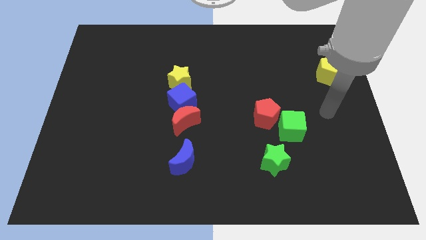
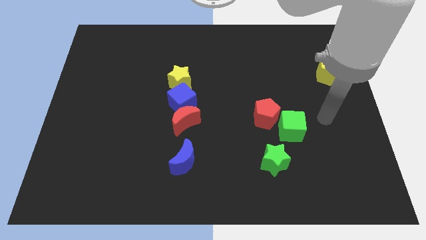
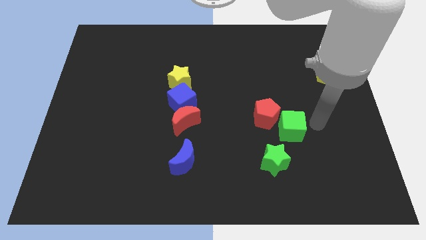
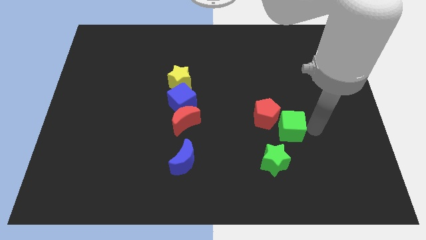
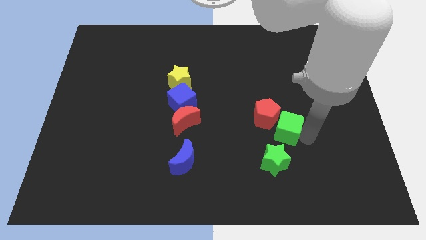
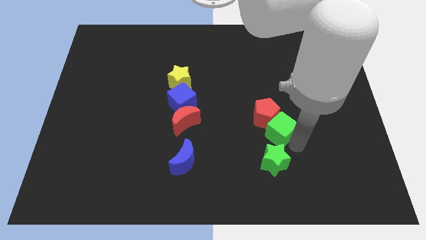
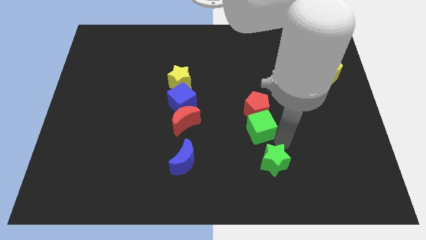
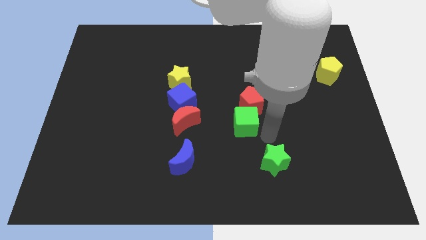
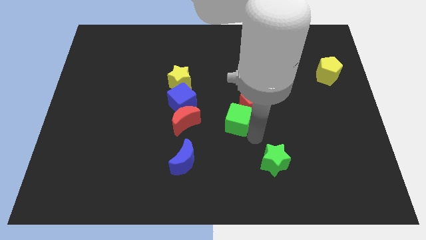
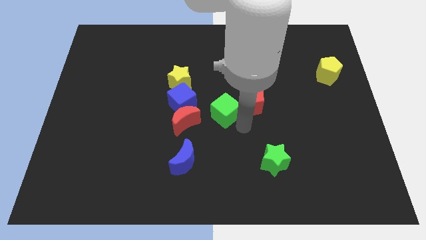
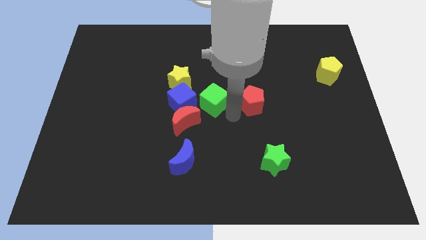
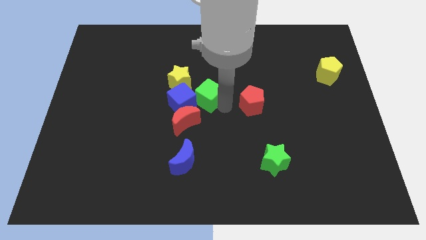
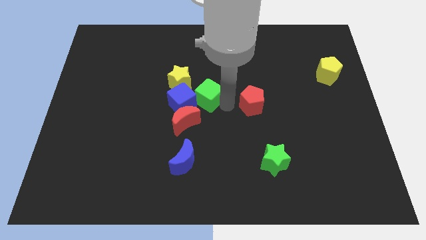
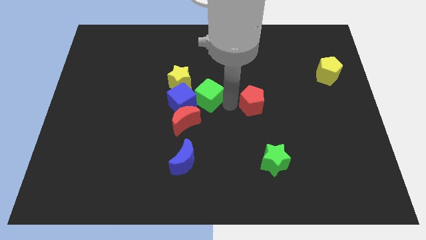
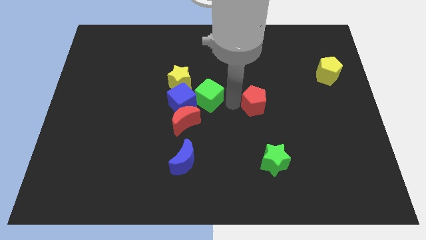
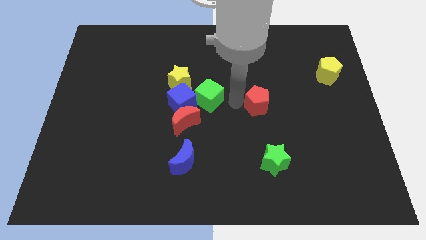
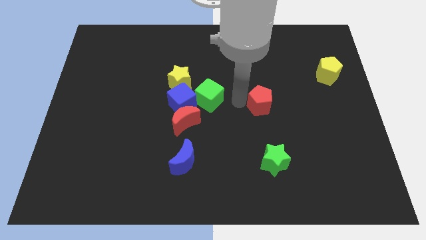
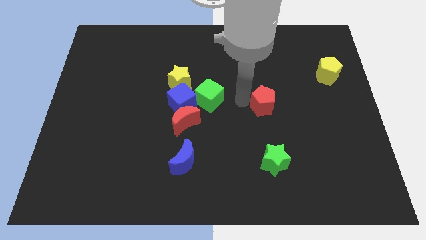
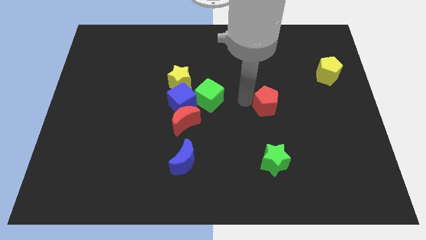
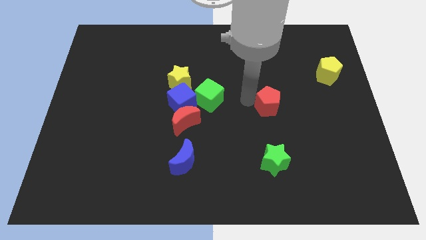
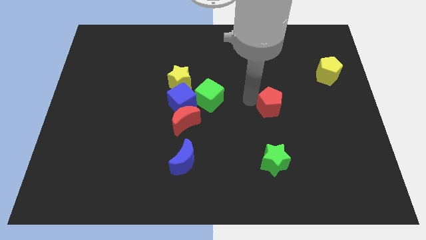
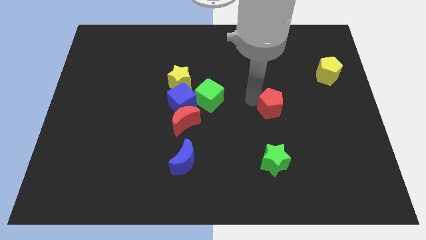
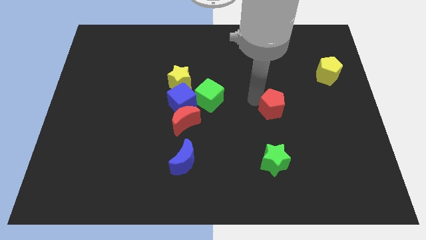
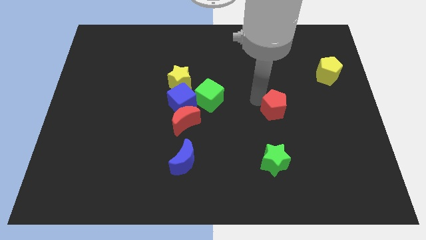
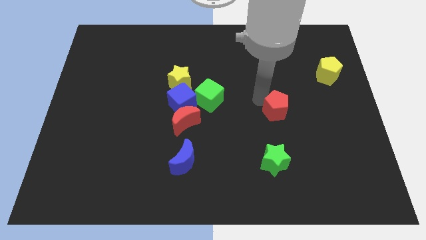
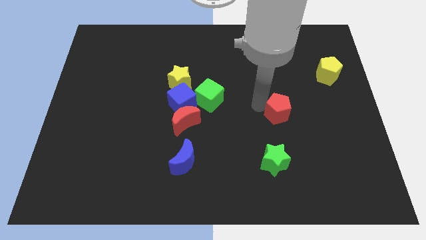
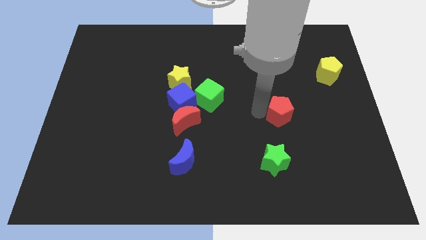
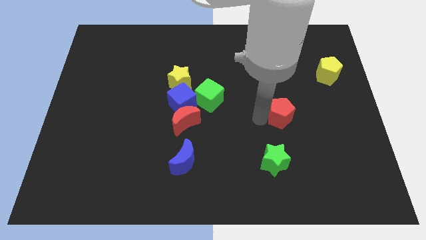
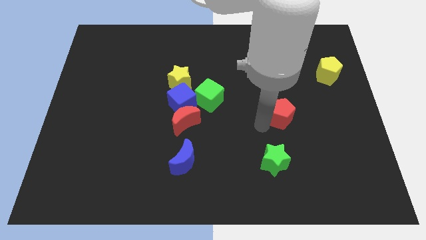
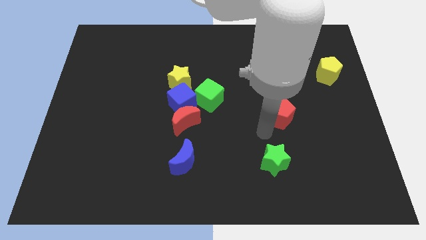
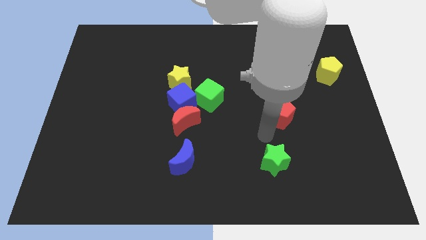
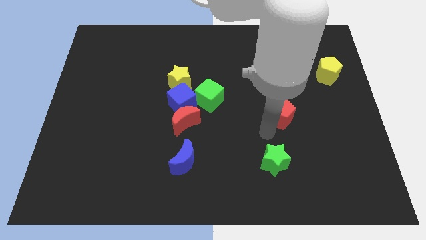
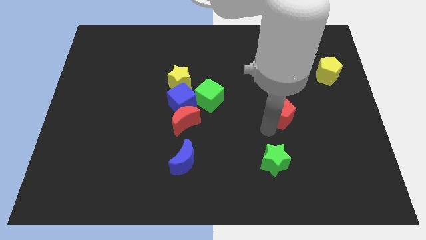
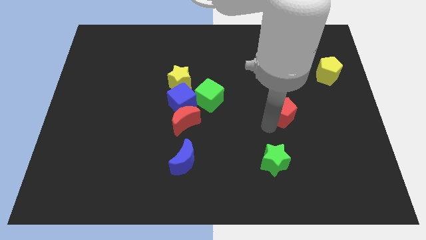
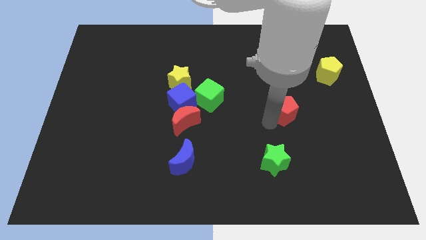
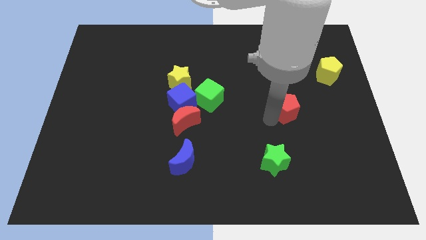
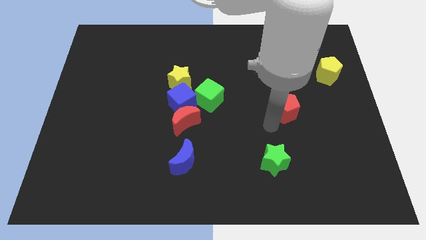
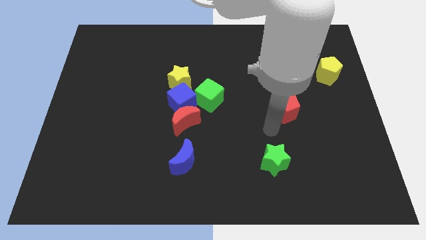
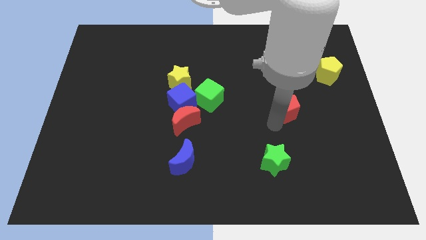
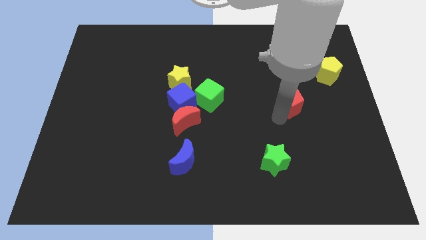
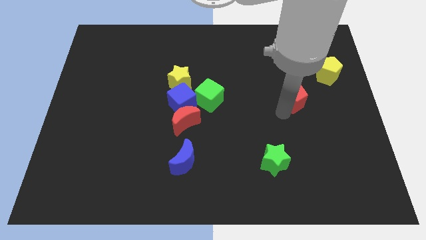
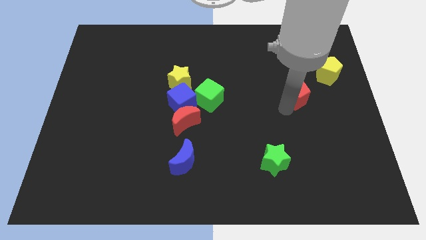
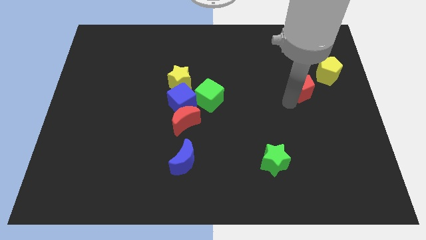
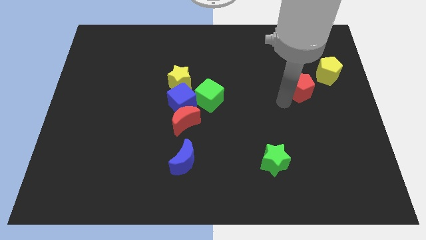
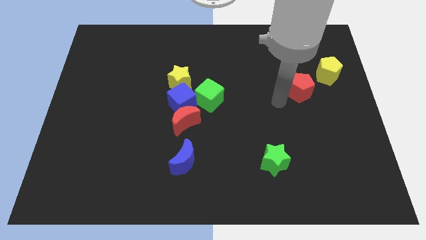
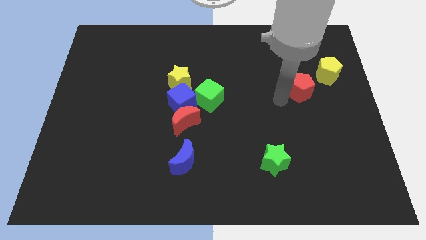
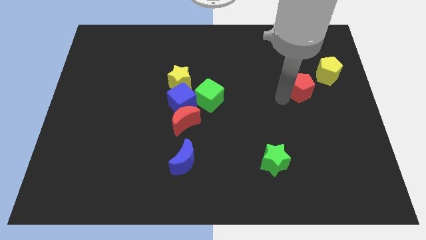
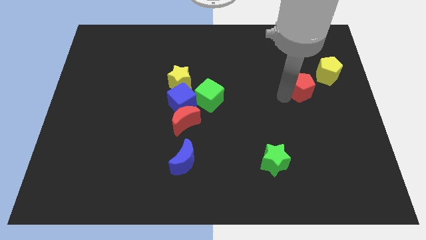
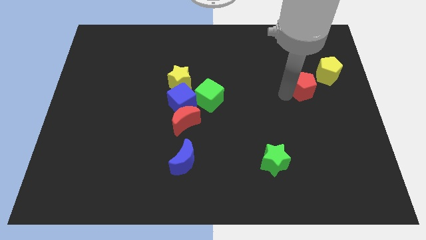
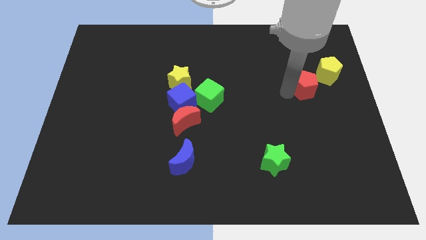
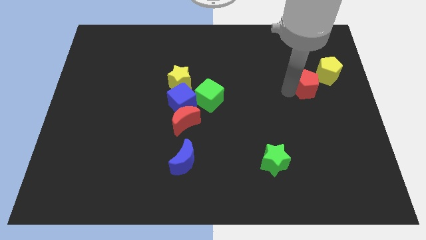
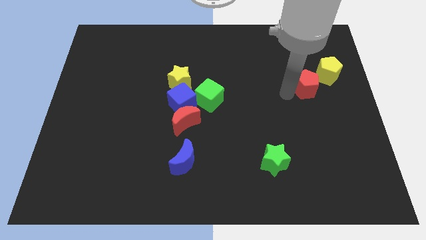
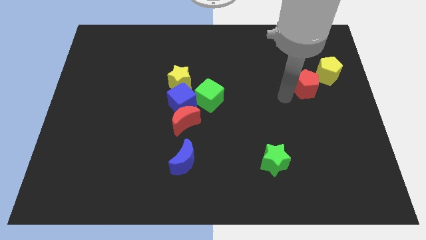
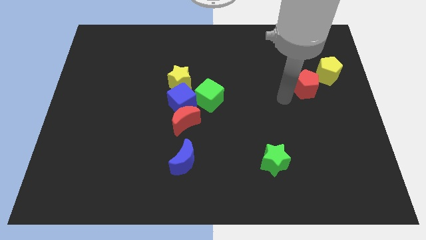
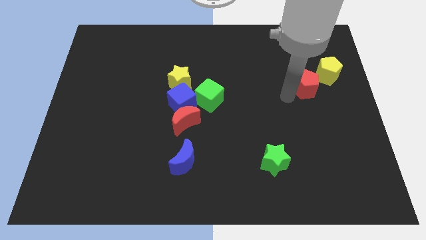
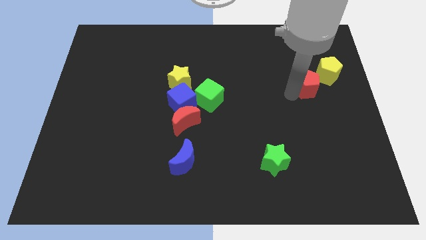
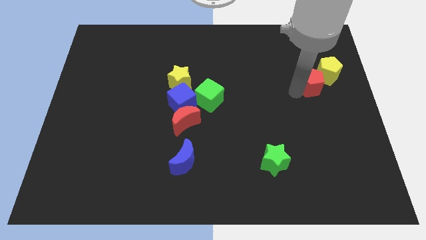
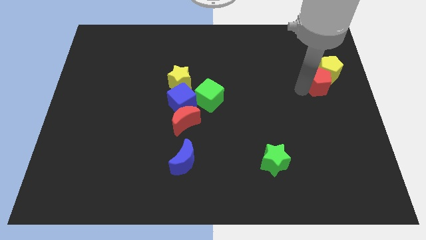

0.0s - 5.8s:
slide the red pentagon close to the yellow pentagon

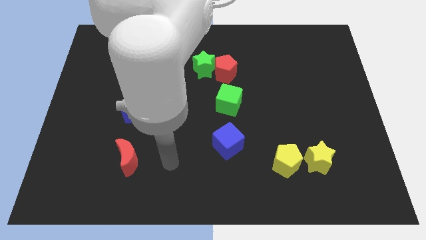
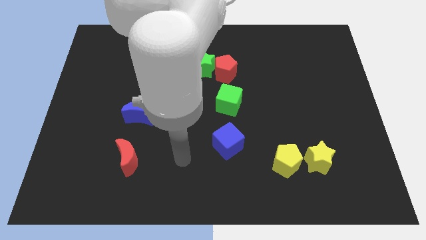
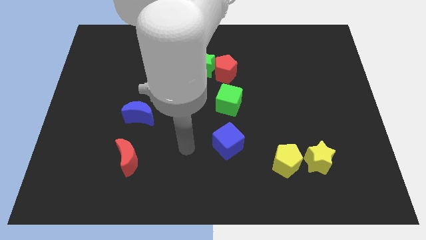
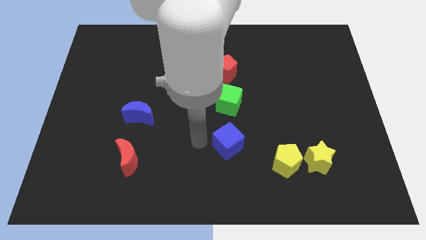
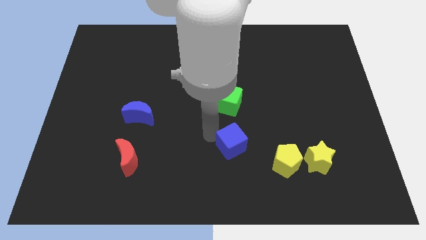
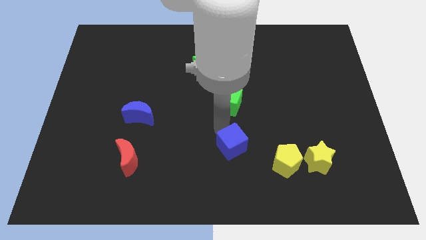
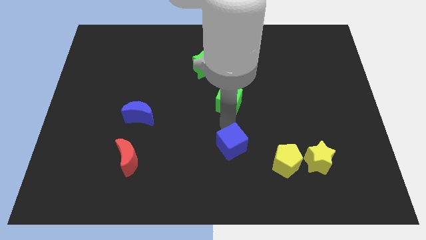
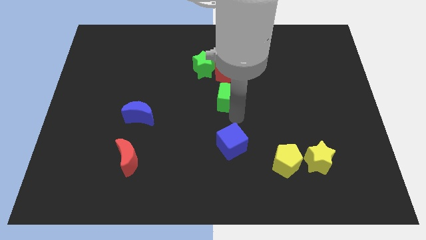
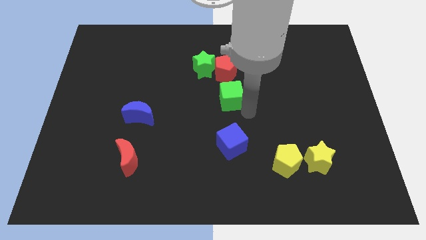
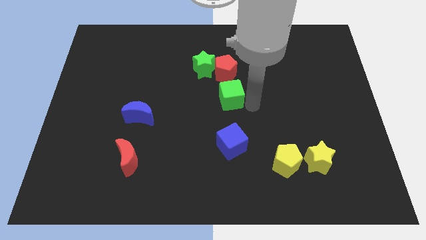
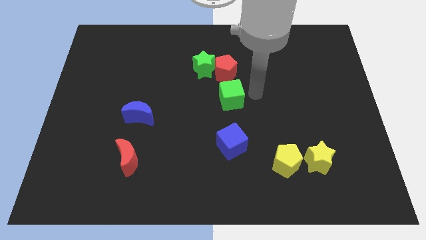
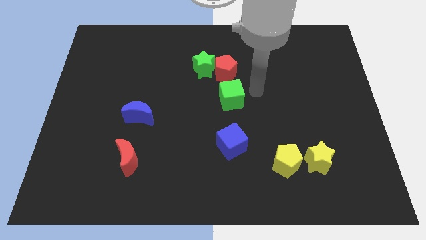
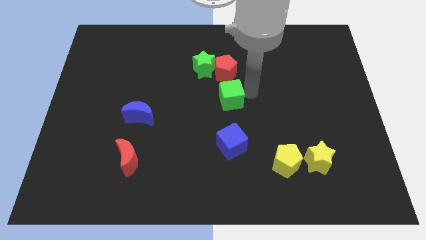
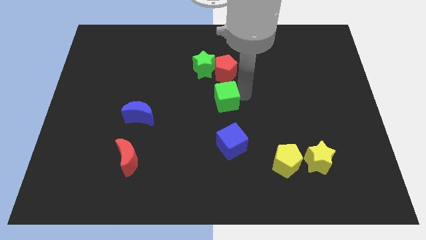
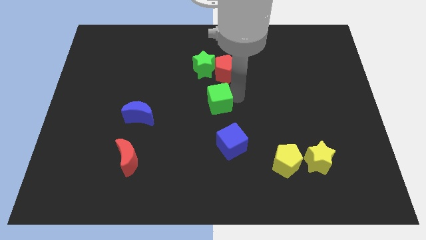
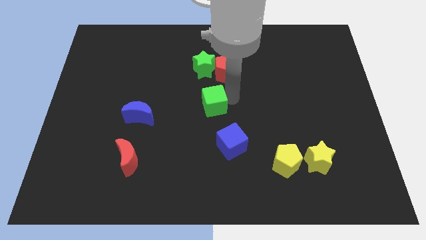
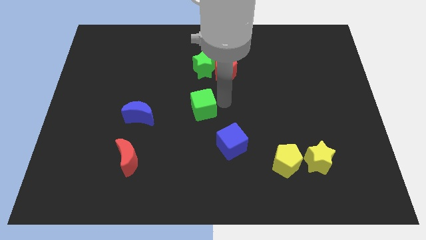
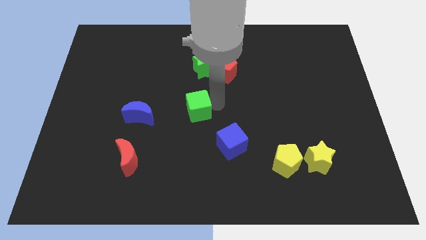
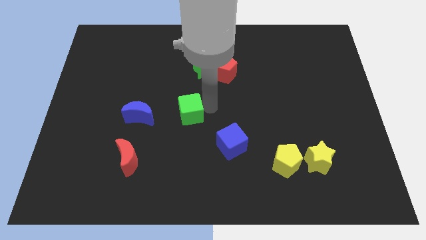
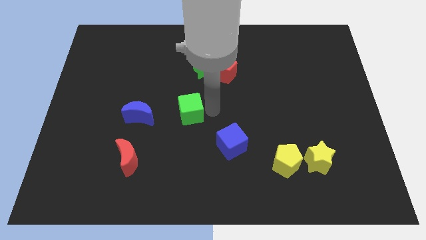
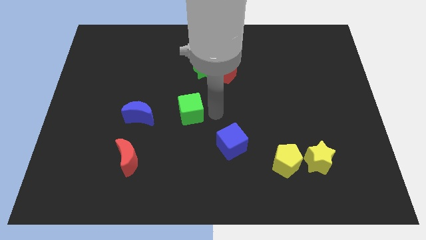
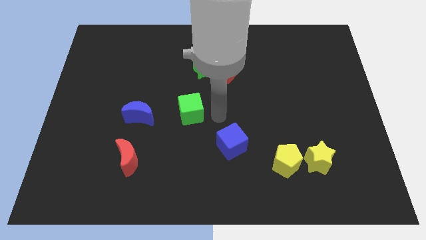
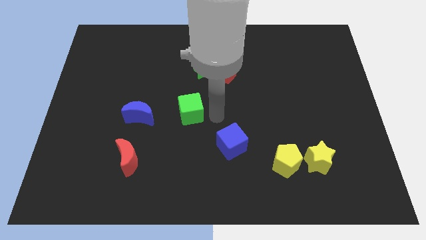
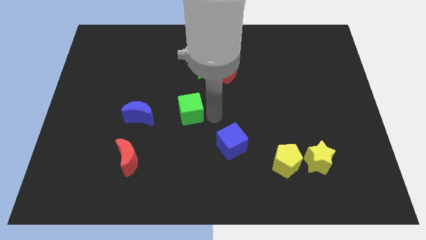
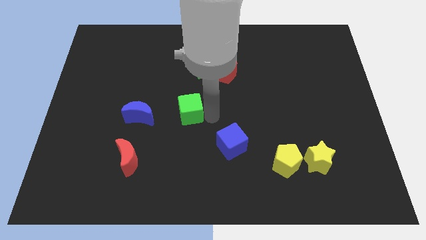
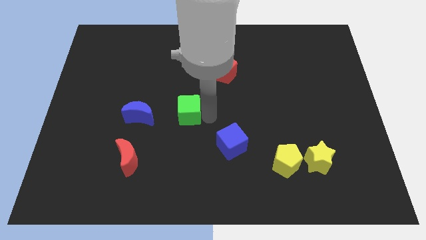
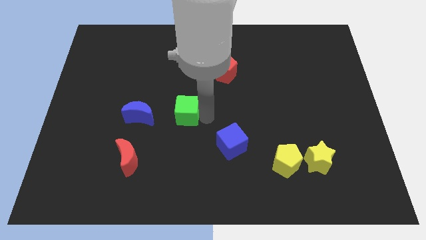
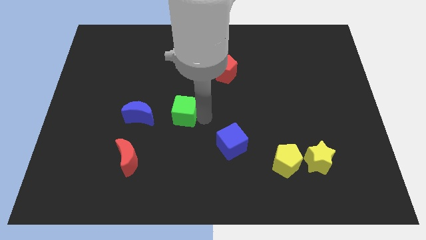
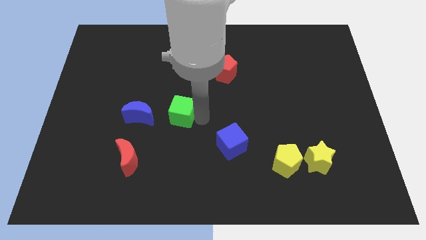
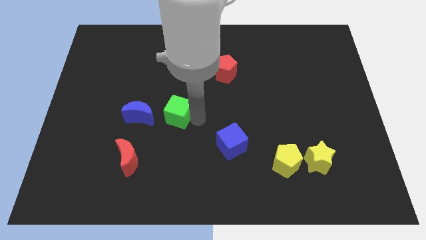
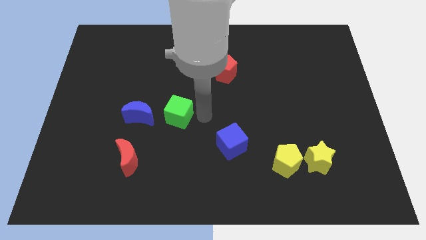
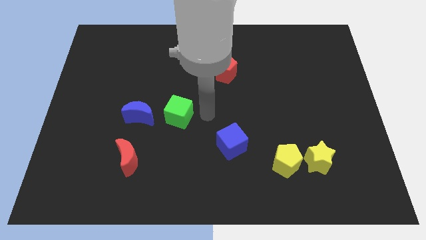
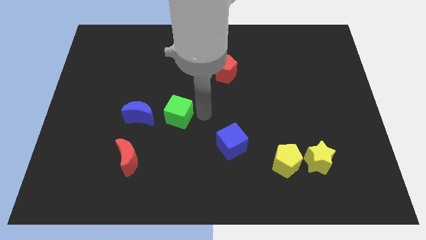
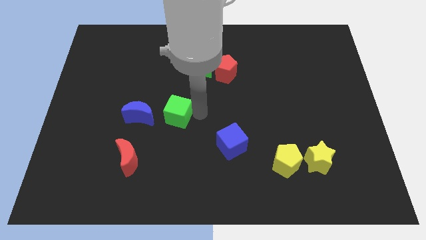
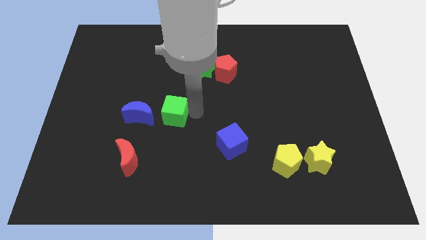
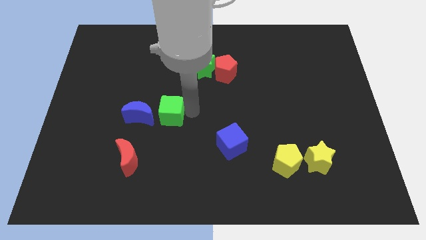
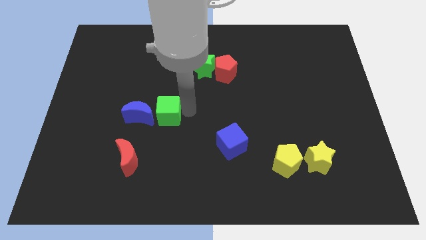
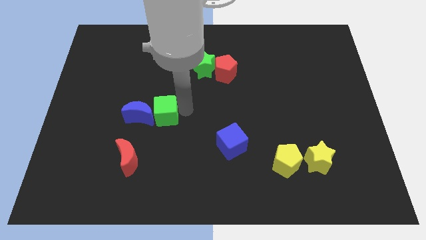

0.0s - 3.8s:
slide the green cube next to the blue moon
